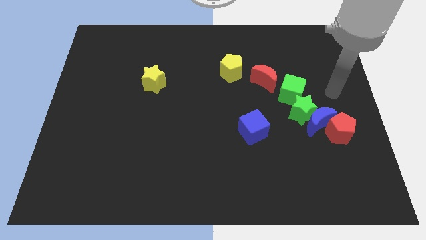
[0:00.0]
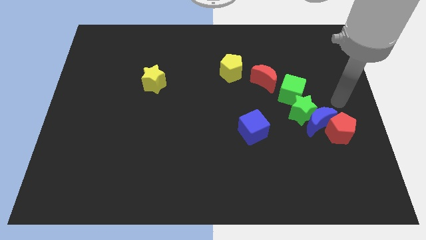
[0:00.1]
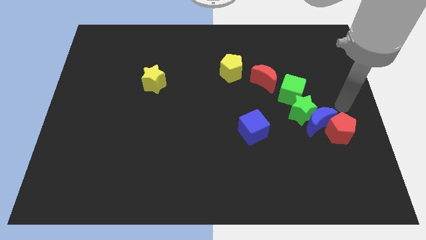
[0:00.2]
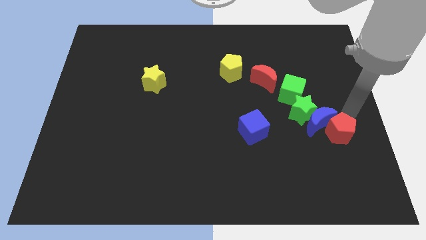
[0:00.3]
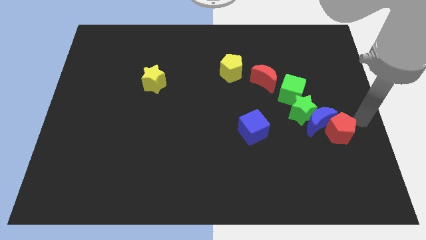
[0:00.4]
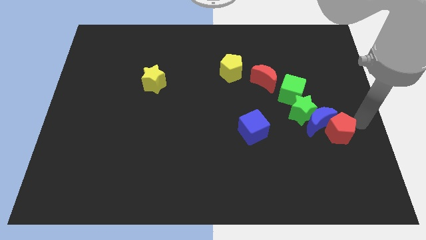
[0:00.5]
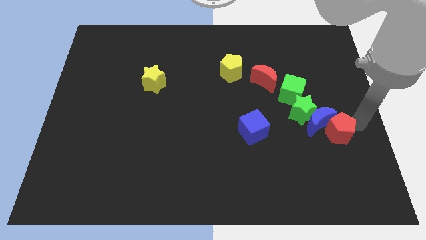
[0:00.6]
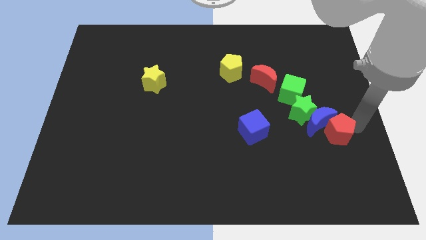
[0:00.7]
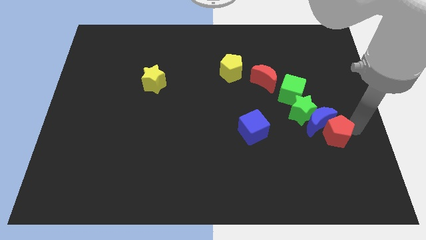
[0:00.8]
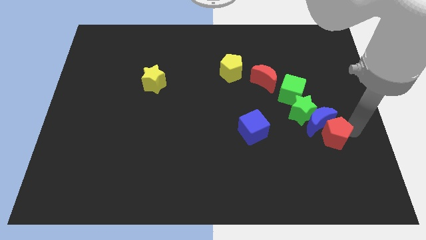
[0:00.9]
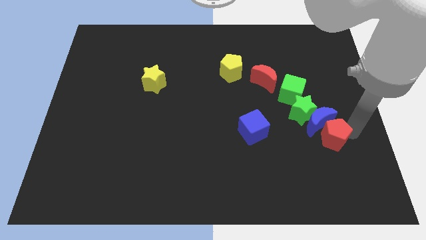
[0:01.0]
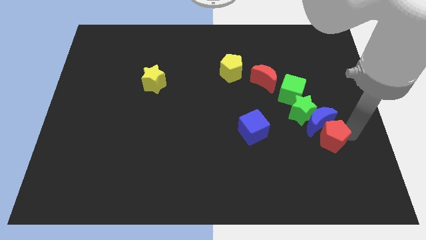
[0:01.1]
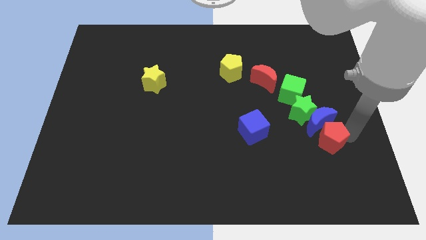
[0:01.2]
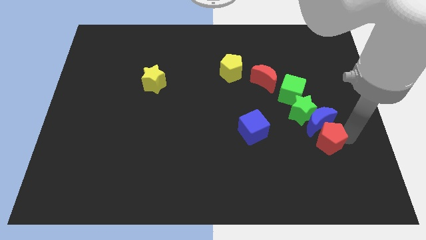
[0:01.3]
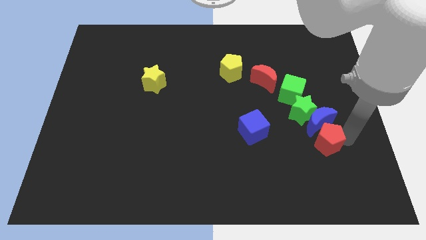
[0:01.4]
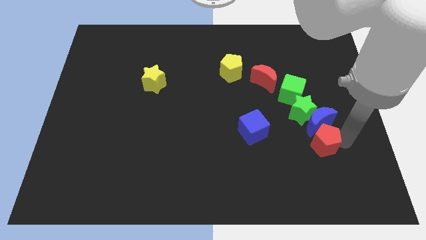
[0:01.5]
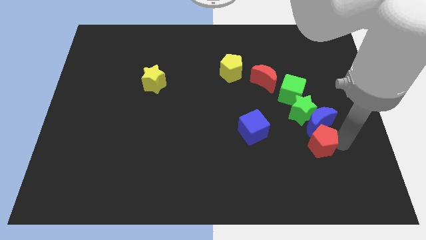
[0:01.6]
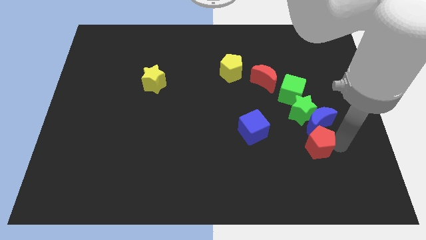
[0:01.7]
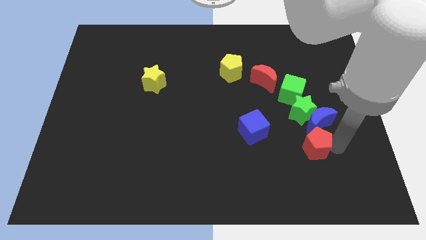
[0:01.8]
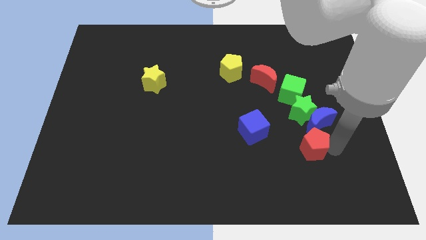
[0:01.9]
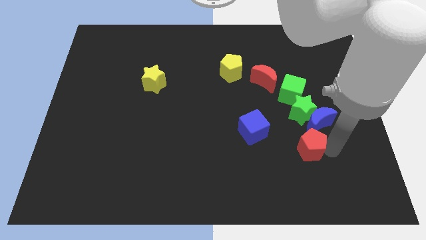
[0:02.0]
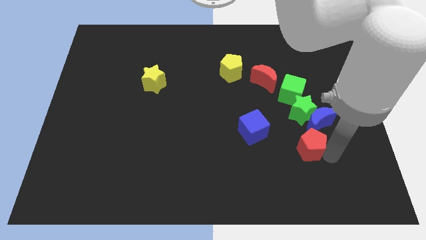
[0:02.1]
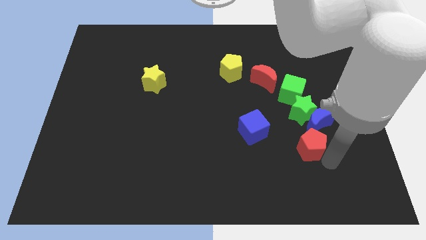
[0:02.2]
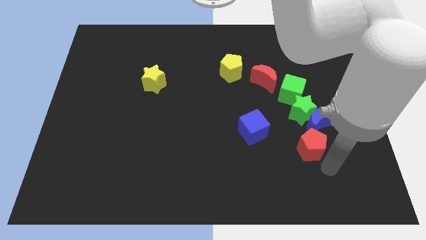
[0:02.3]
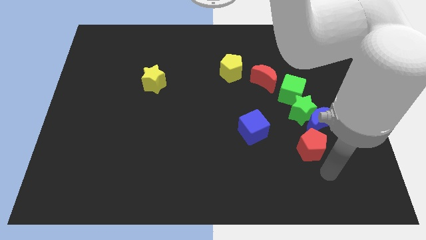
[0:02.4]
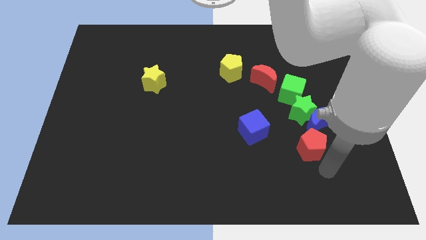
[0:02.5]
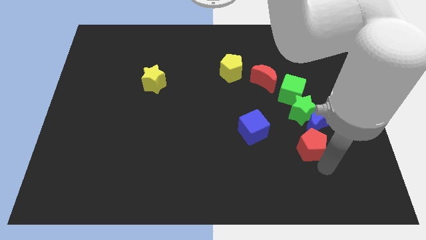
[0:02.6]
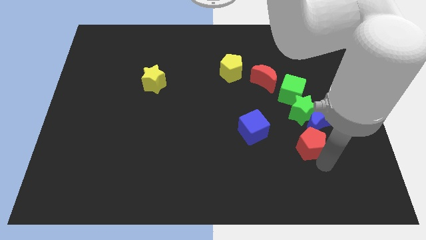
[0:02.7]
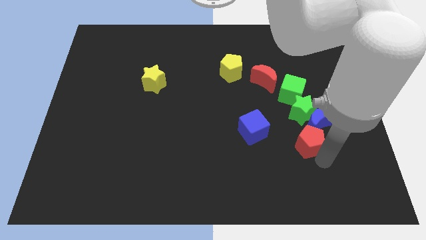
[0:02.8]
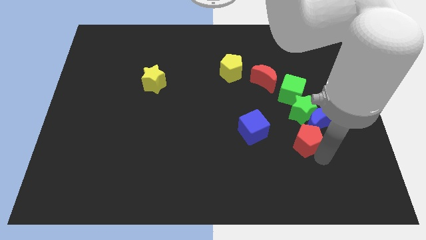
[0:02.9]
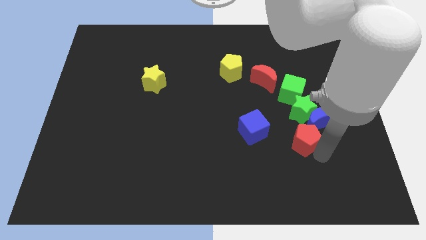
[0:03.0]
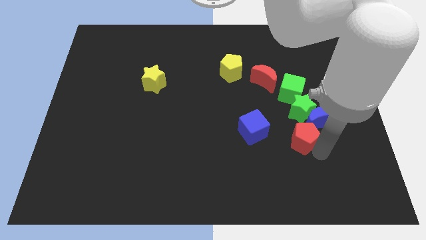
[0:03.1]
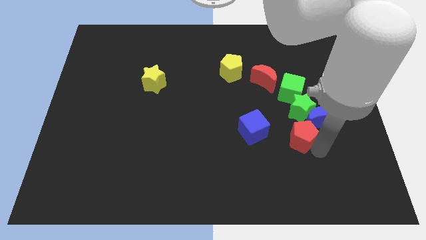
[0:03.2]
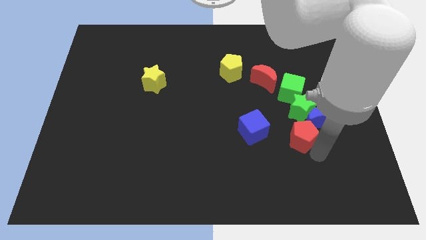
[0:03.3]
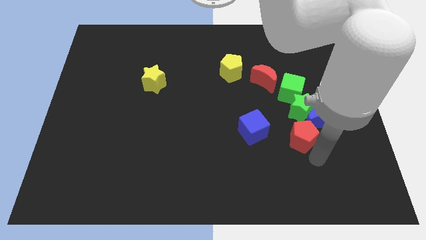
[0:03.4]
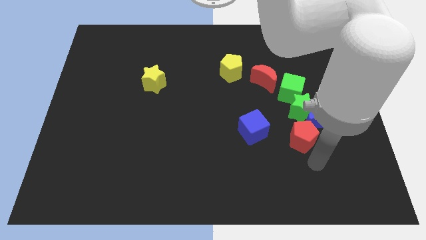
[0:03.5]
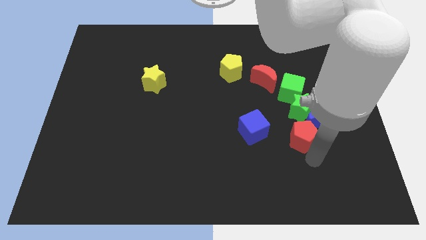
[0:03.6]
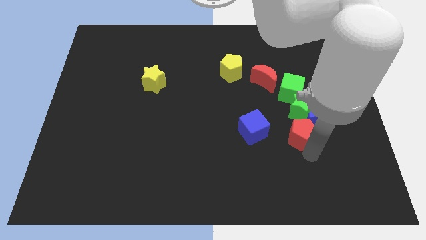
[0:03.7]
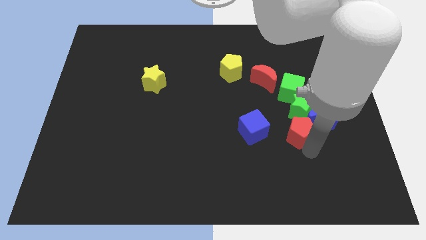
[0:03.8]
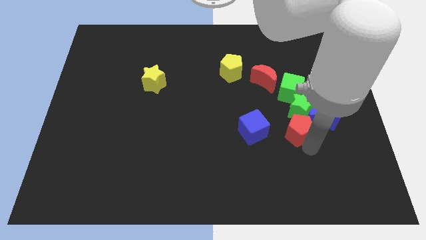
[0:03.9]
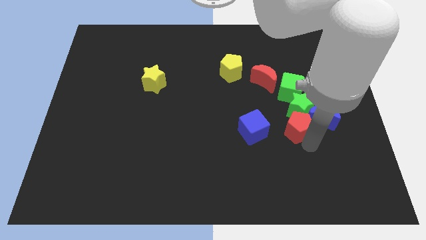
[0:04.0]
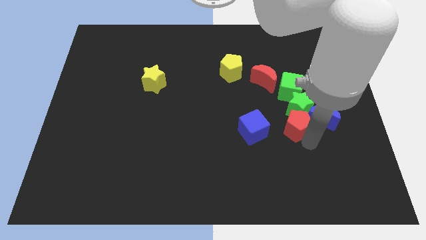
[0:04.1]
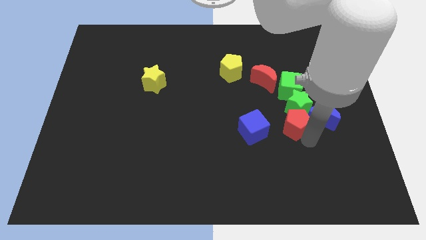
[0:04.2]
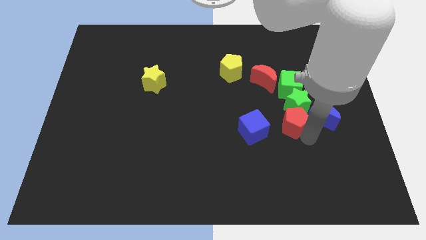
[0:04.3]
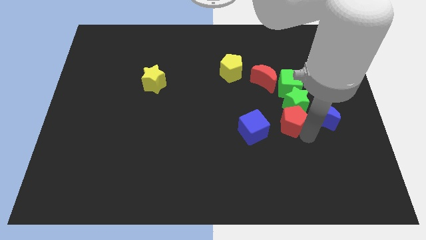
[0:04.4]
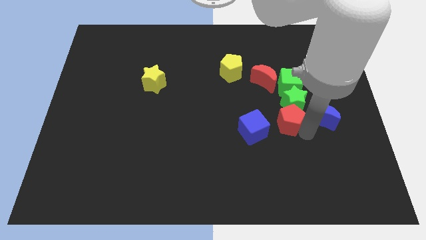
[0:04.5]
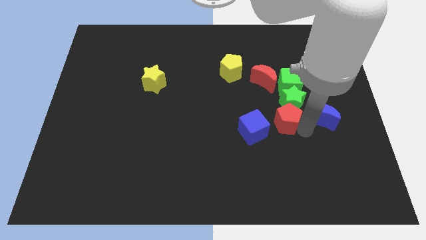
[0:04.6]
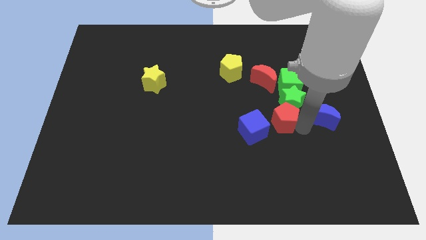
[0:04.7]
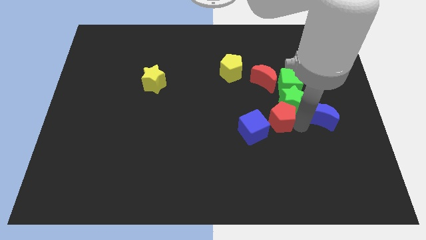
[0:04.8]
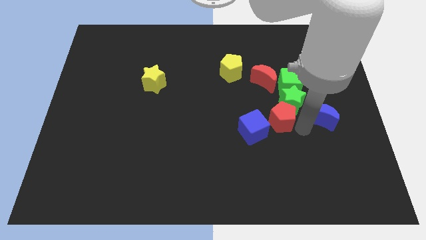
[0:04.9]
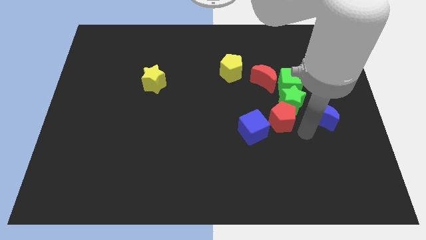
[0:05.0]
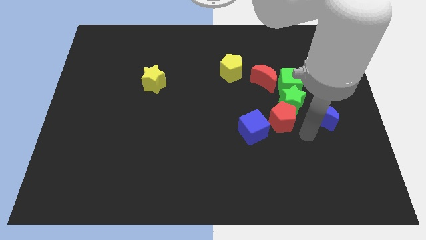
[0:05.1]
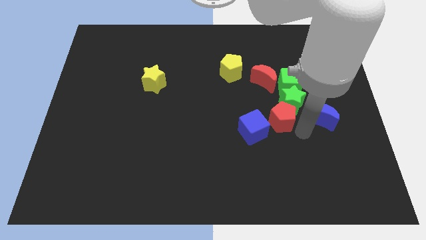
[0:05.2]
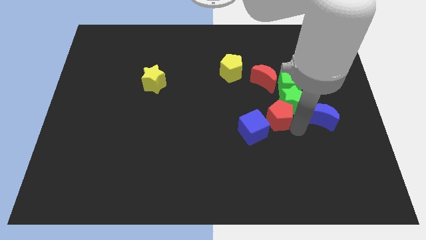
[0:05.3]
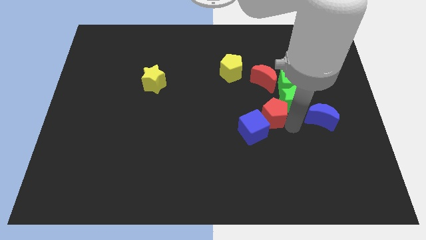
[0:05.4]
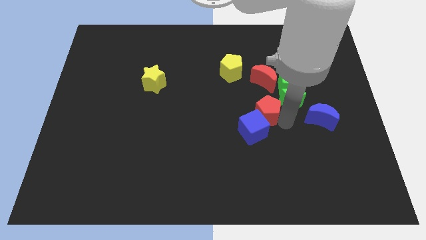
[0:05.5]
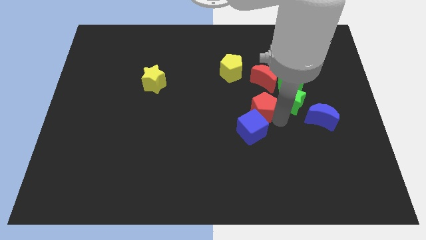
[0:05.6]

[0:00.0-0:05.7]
move the red pentagon to the center of the board

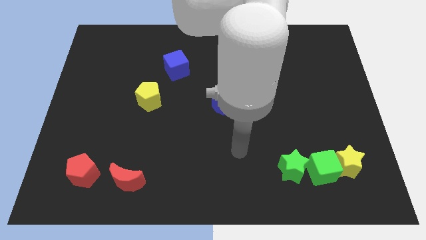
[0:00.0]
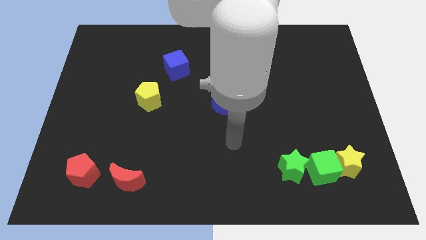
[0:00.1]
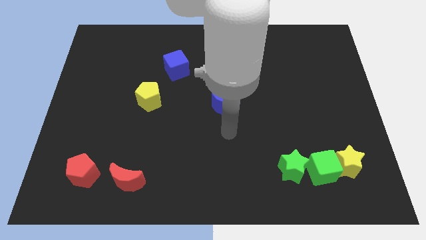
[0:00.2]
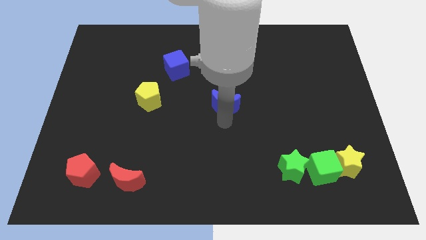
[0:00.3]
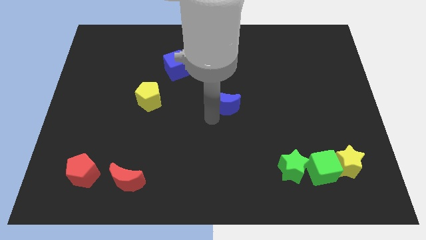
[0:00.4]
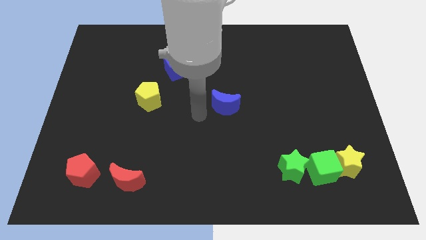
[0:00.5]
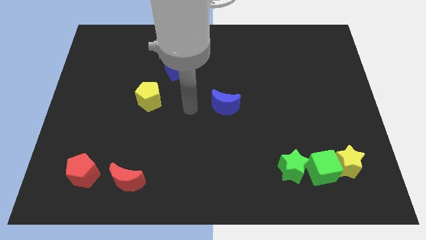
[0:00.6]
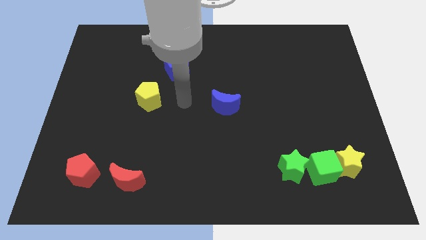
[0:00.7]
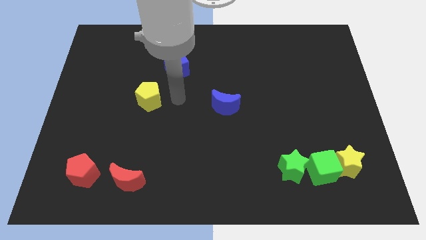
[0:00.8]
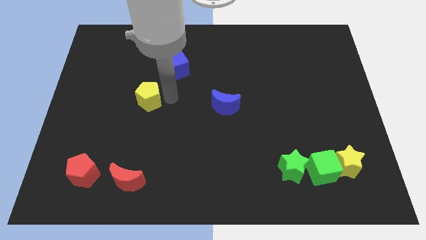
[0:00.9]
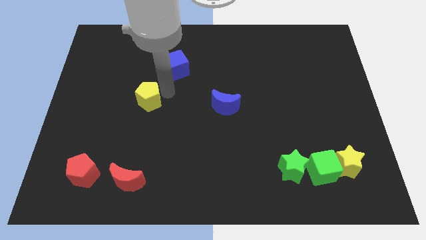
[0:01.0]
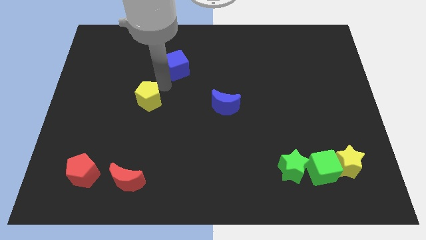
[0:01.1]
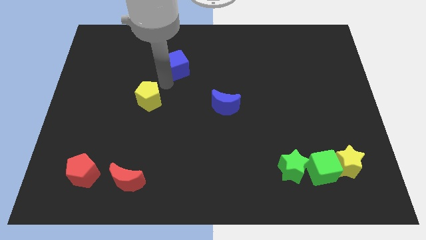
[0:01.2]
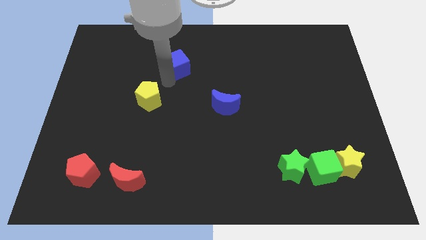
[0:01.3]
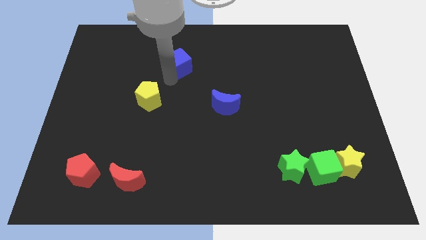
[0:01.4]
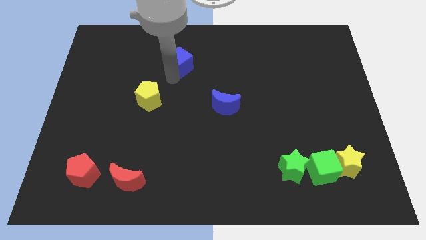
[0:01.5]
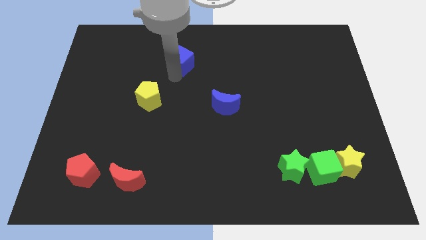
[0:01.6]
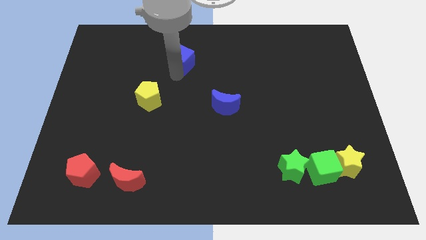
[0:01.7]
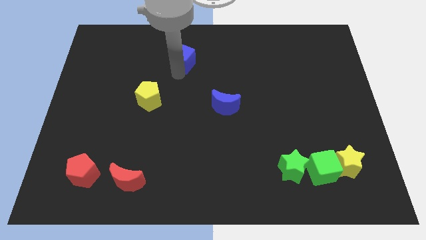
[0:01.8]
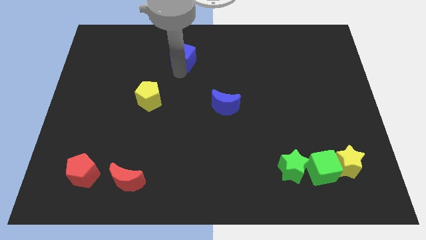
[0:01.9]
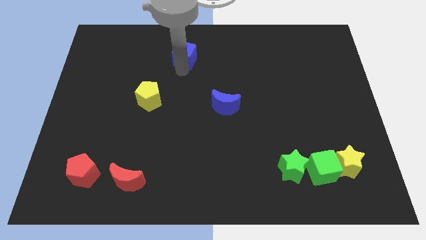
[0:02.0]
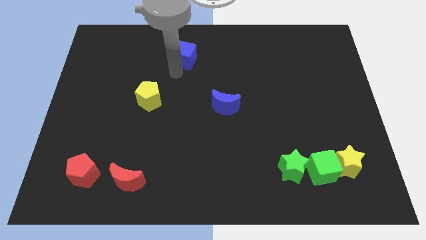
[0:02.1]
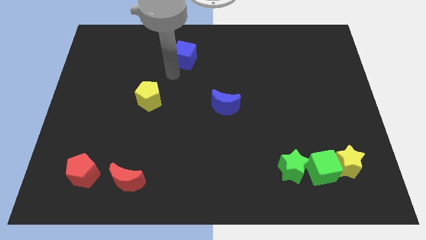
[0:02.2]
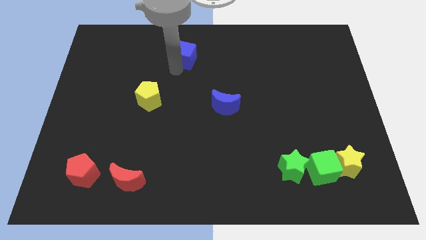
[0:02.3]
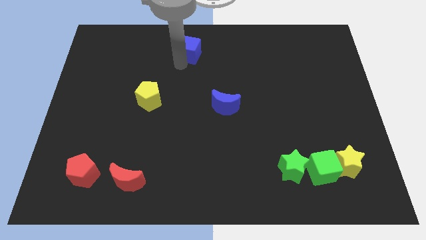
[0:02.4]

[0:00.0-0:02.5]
move the blue cube to the top side
